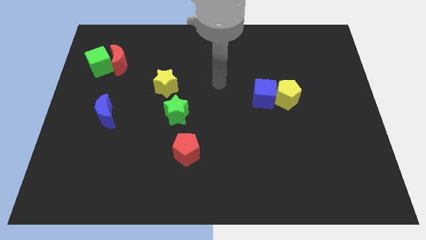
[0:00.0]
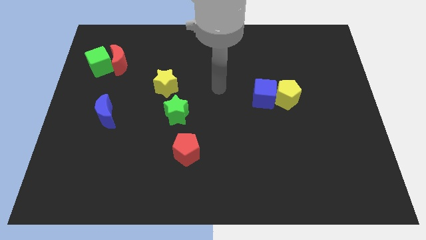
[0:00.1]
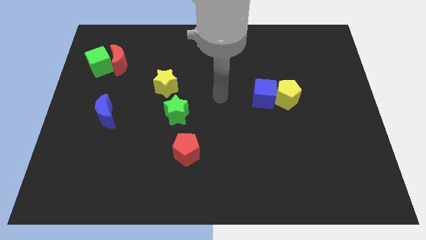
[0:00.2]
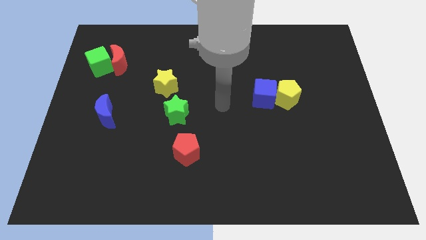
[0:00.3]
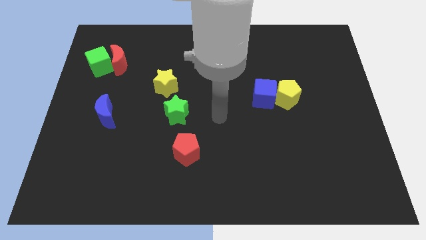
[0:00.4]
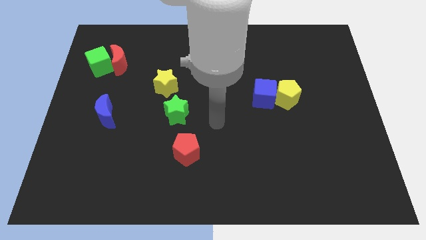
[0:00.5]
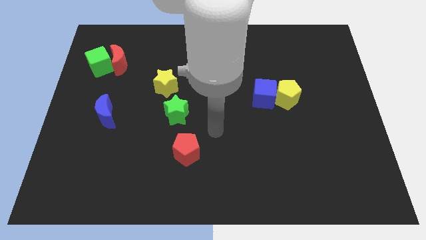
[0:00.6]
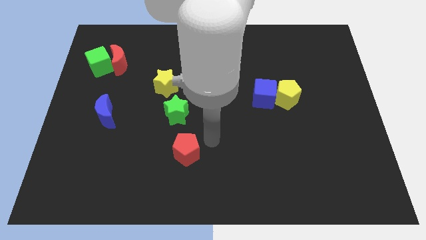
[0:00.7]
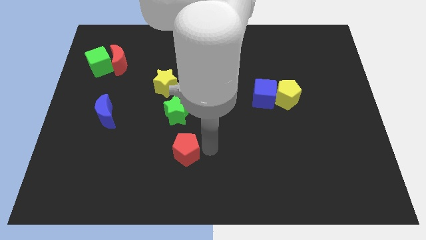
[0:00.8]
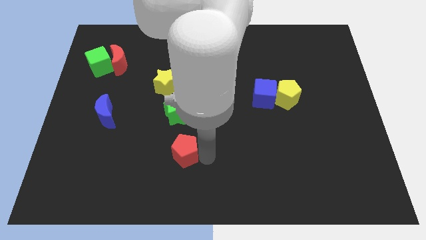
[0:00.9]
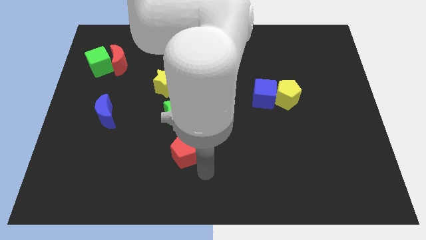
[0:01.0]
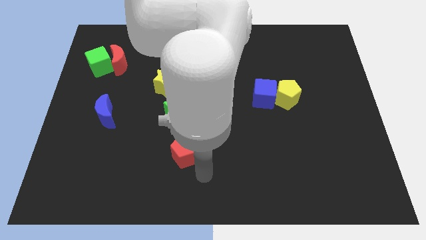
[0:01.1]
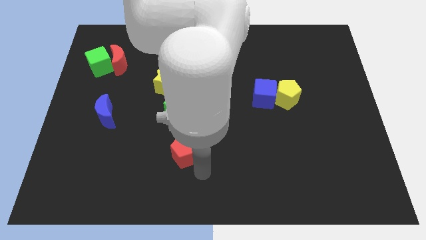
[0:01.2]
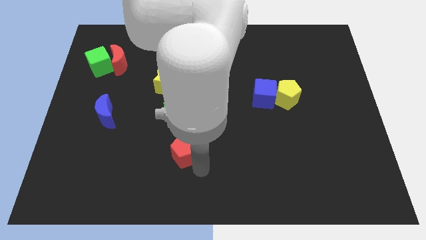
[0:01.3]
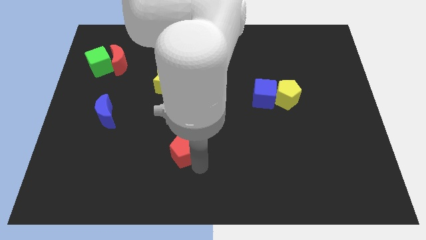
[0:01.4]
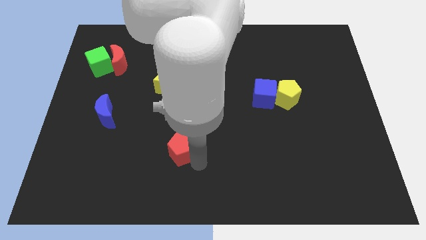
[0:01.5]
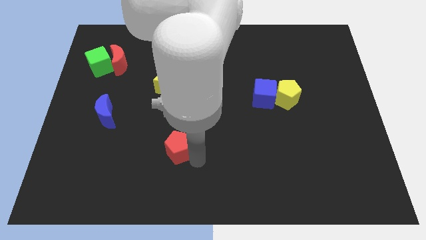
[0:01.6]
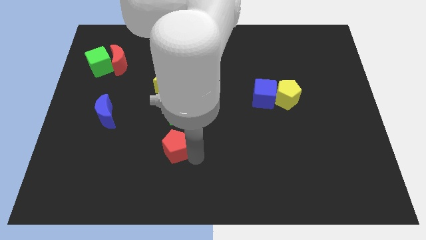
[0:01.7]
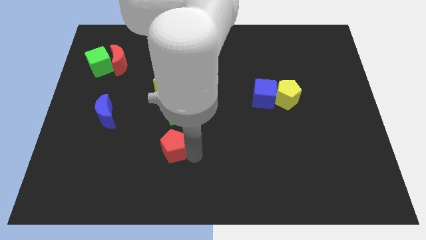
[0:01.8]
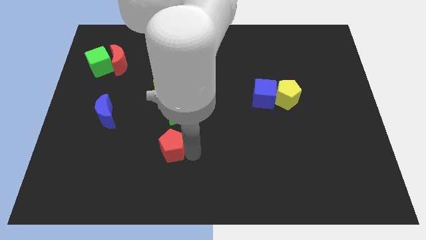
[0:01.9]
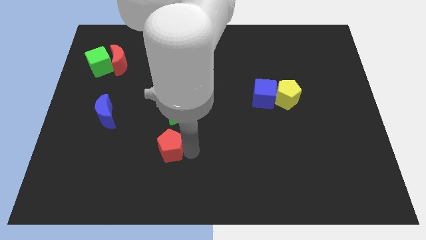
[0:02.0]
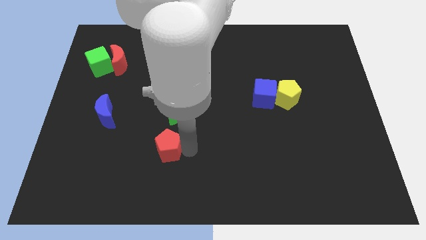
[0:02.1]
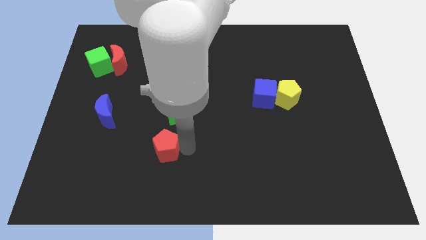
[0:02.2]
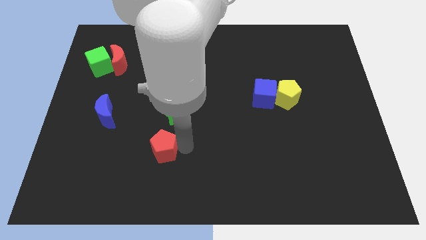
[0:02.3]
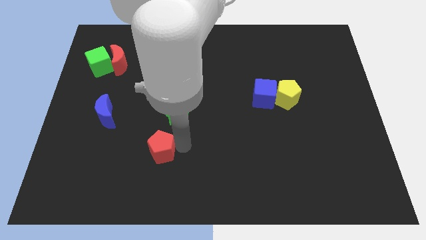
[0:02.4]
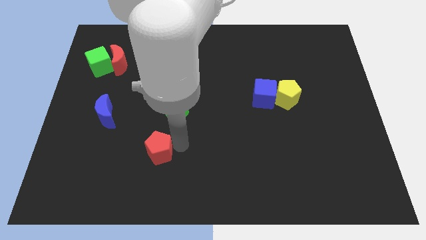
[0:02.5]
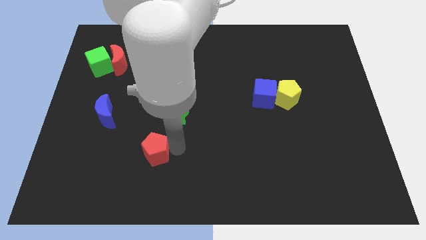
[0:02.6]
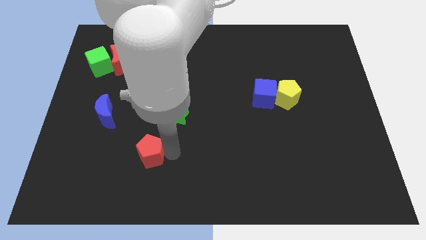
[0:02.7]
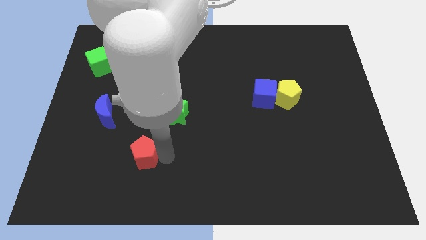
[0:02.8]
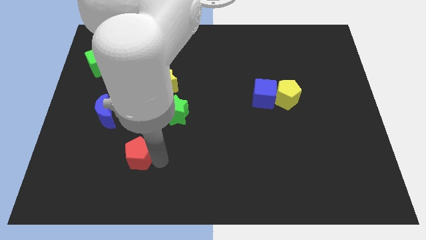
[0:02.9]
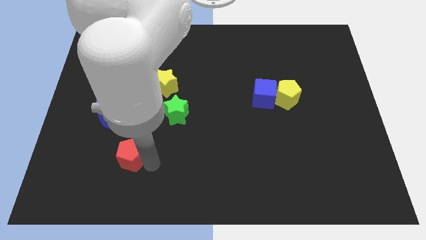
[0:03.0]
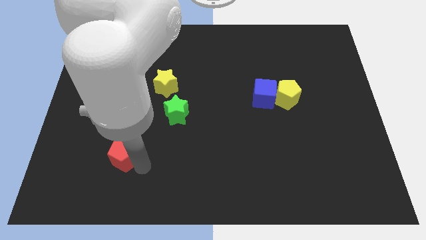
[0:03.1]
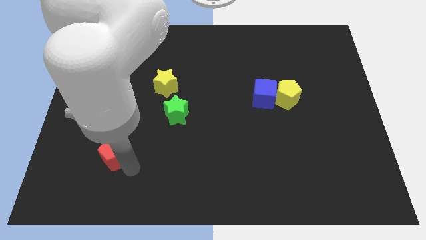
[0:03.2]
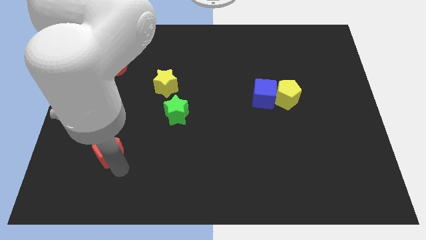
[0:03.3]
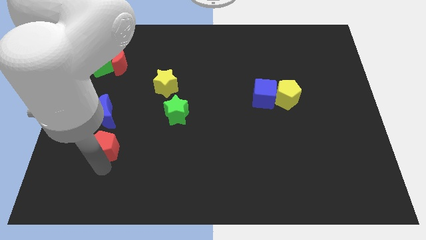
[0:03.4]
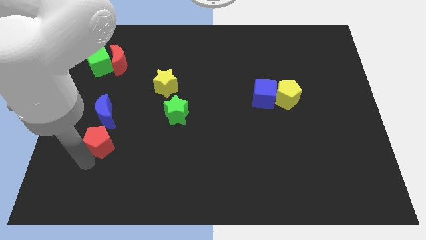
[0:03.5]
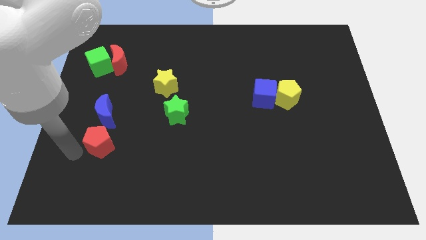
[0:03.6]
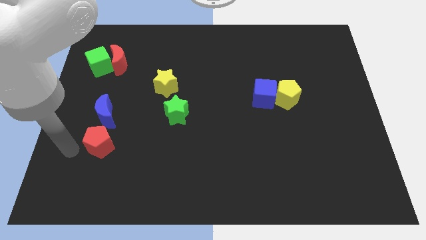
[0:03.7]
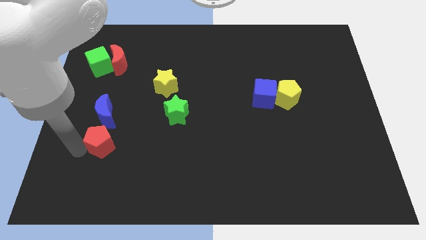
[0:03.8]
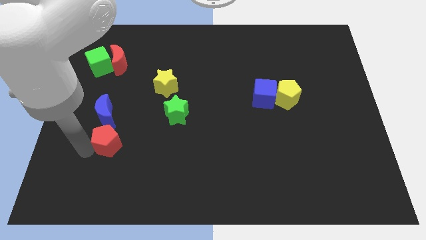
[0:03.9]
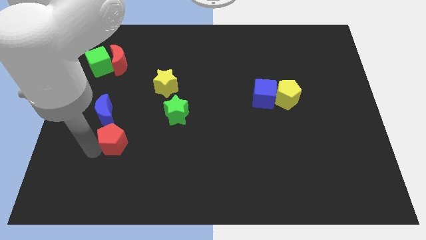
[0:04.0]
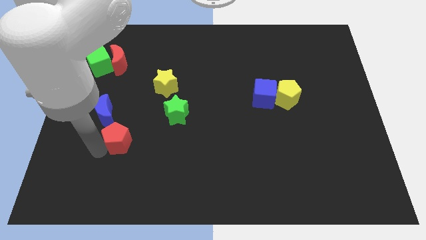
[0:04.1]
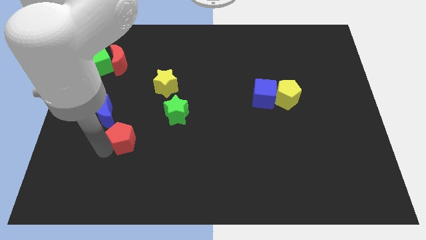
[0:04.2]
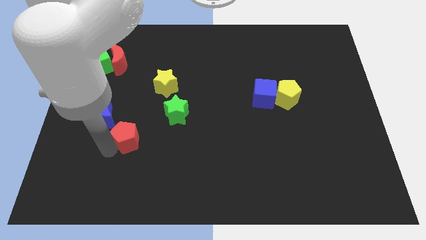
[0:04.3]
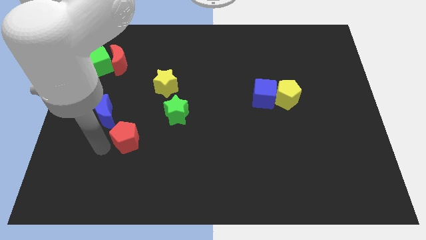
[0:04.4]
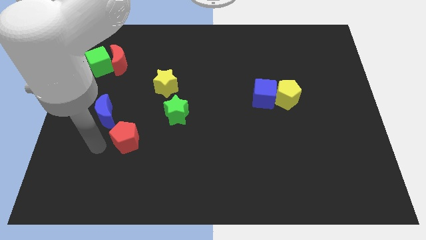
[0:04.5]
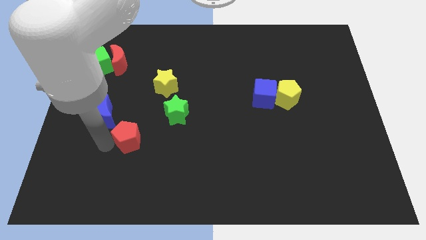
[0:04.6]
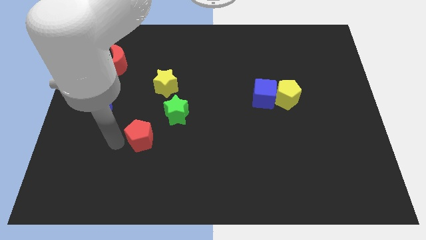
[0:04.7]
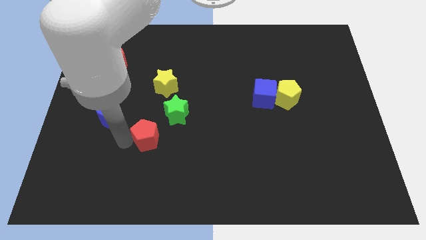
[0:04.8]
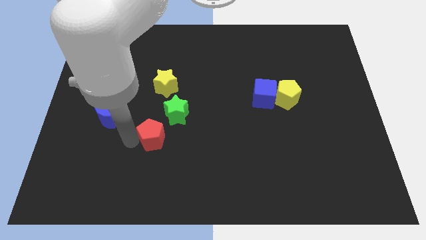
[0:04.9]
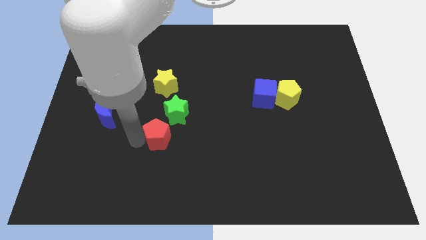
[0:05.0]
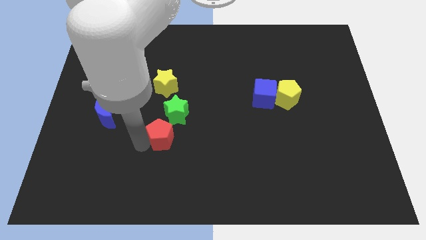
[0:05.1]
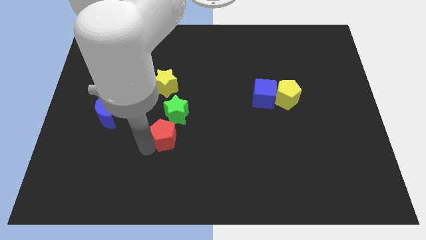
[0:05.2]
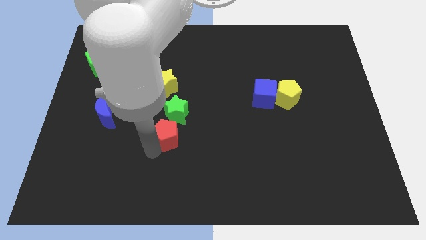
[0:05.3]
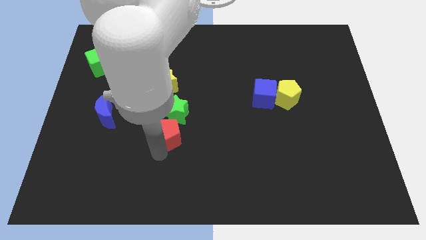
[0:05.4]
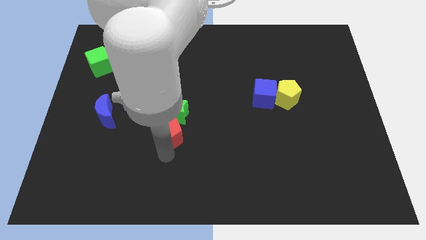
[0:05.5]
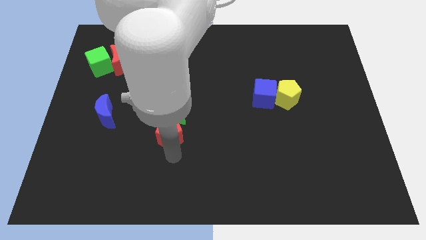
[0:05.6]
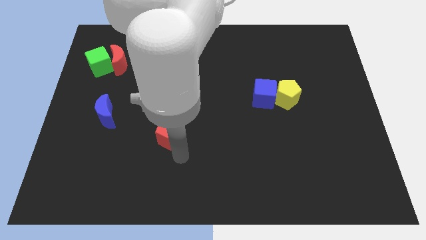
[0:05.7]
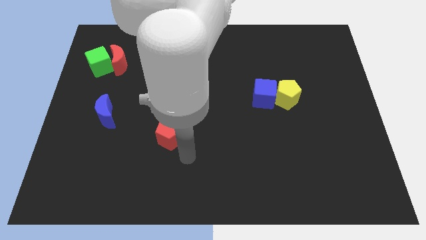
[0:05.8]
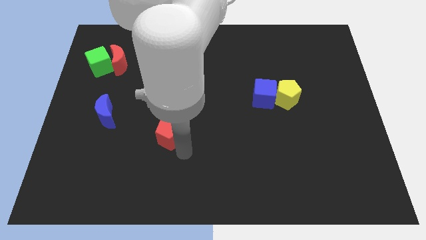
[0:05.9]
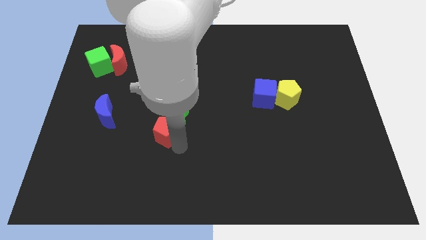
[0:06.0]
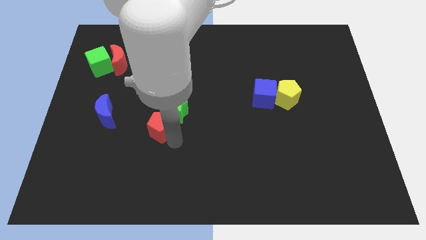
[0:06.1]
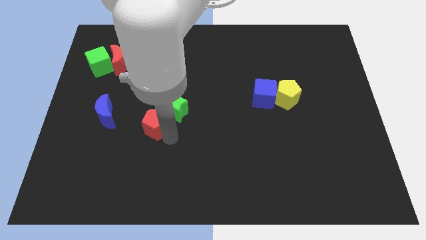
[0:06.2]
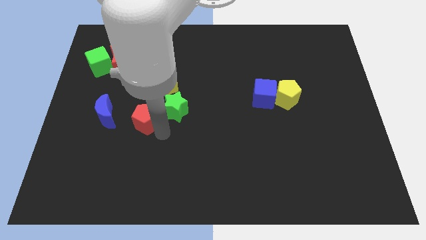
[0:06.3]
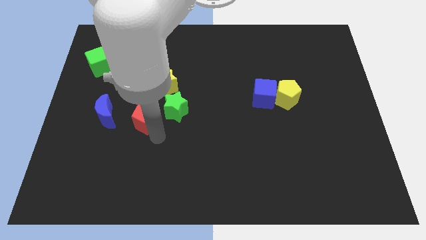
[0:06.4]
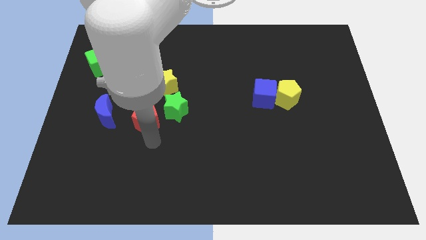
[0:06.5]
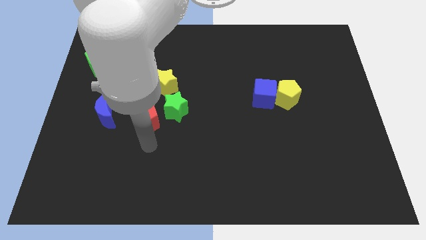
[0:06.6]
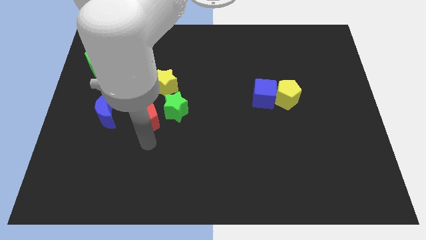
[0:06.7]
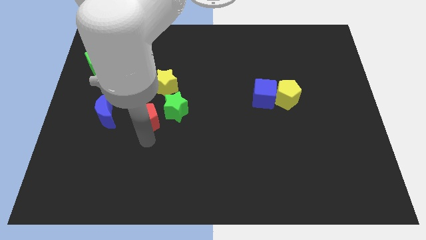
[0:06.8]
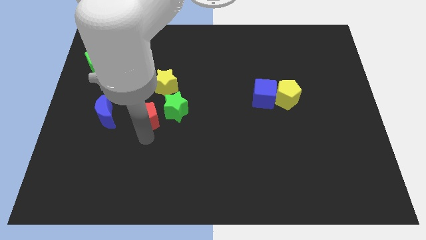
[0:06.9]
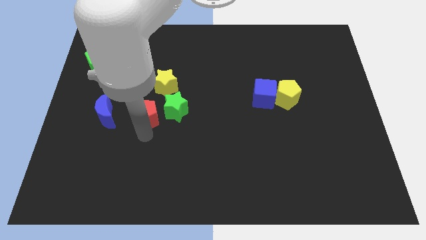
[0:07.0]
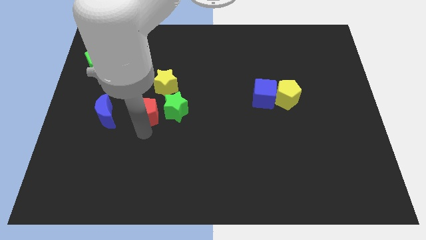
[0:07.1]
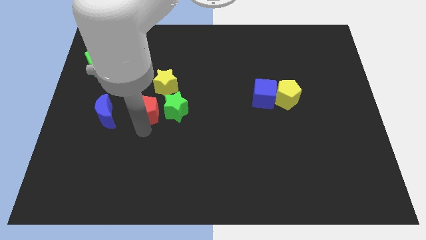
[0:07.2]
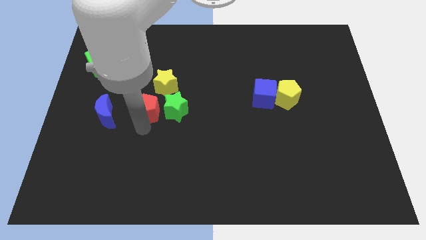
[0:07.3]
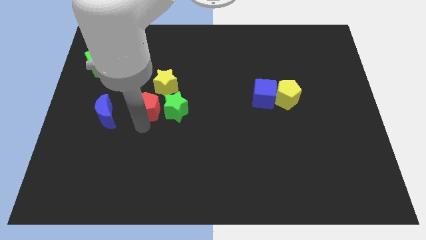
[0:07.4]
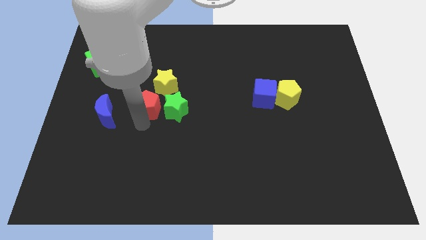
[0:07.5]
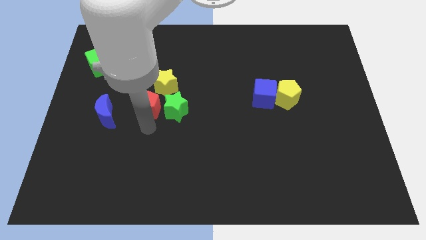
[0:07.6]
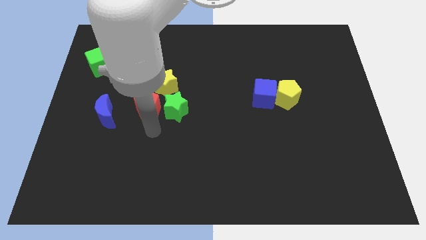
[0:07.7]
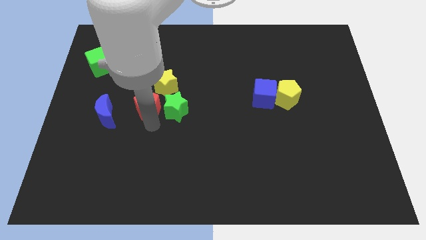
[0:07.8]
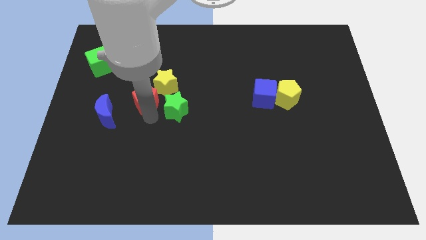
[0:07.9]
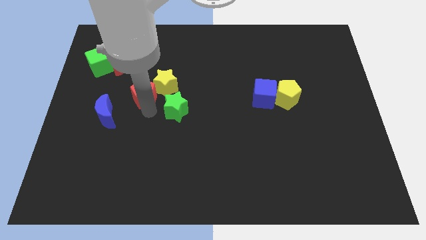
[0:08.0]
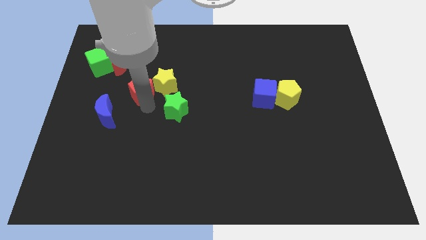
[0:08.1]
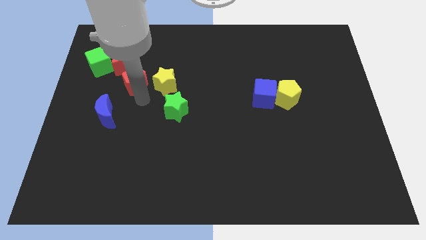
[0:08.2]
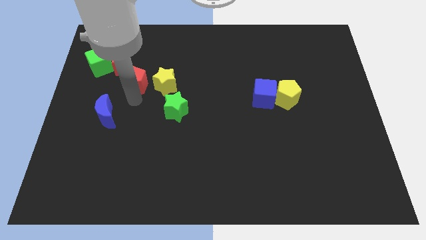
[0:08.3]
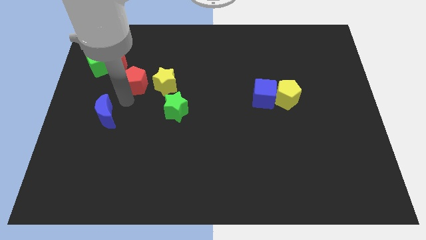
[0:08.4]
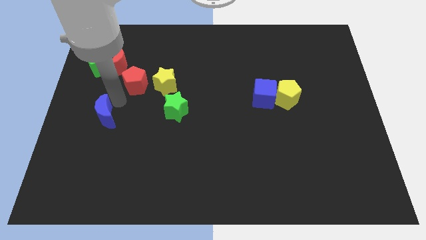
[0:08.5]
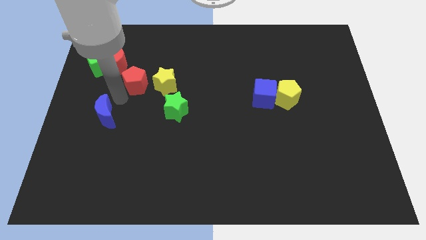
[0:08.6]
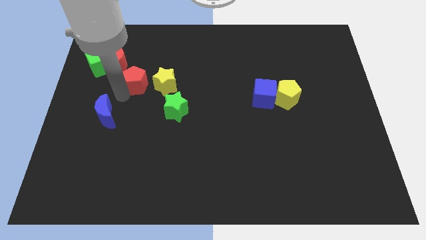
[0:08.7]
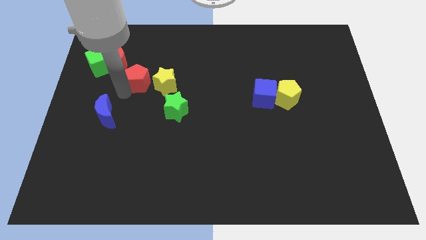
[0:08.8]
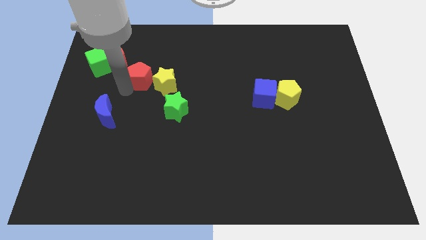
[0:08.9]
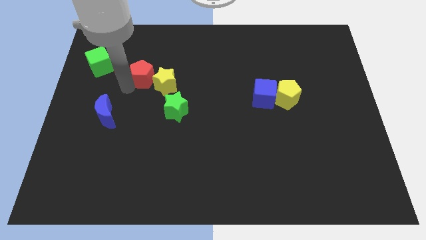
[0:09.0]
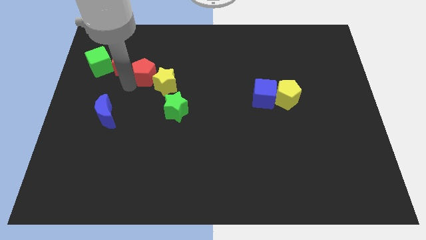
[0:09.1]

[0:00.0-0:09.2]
put the red pentagon to the right of the red moon
